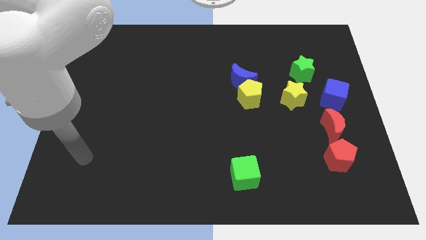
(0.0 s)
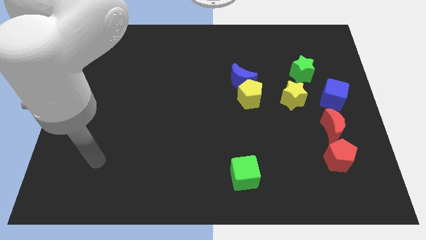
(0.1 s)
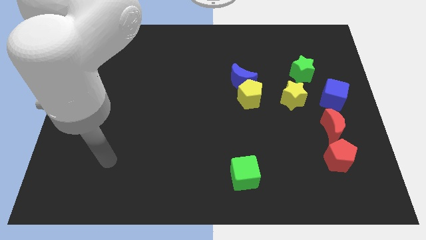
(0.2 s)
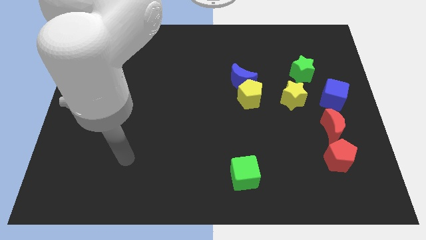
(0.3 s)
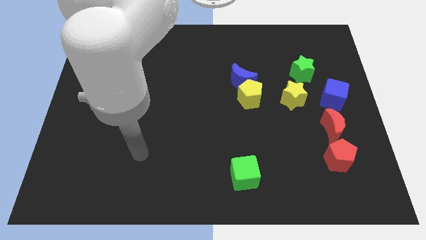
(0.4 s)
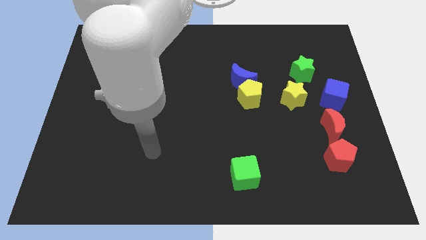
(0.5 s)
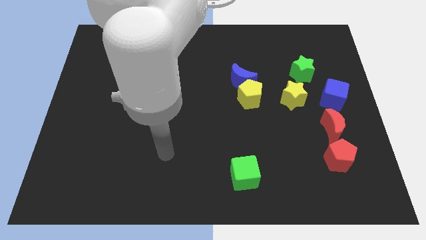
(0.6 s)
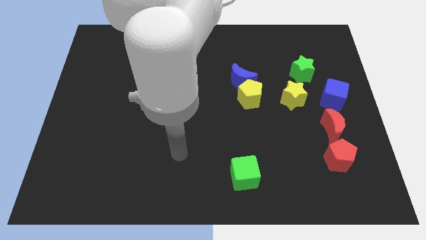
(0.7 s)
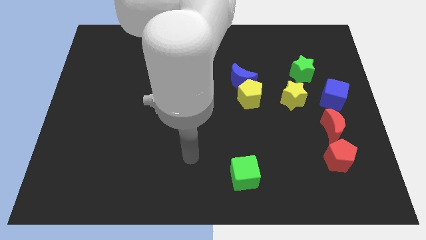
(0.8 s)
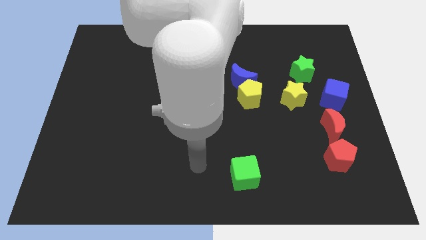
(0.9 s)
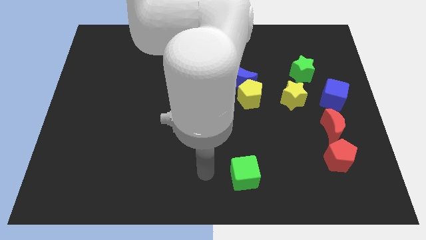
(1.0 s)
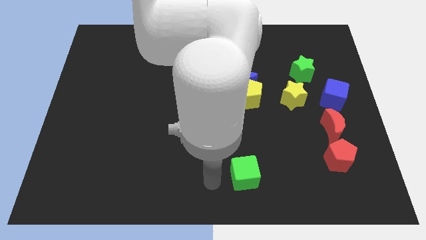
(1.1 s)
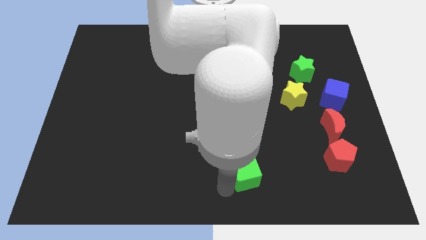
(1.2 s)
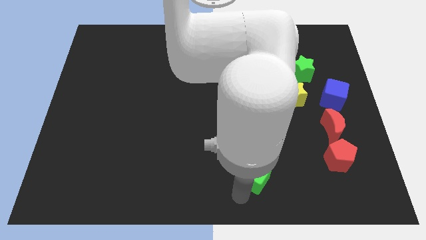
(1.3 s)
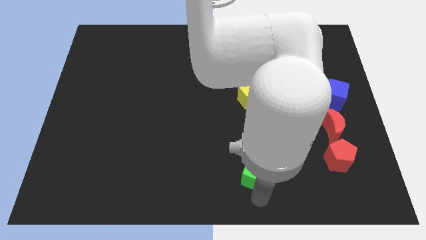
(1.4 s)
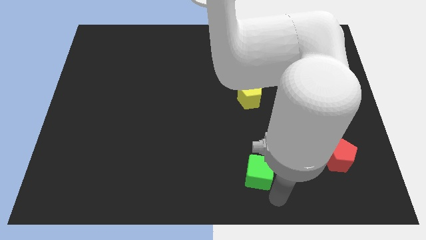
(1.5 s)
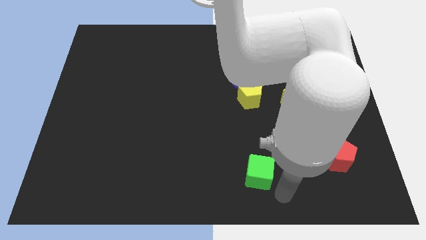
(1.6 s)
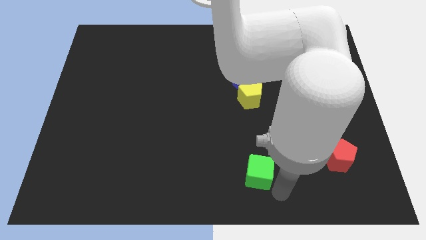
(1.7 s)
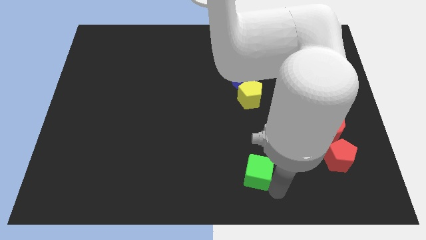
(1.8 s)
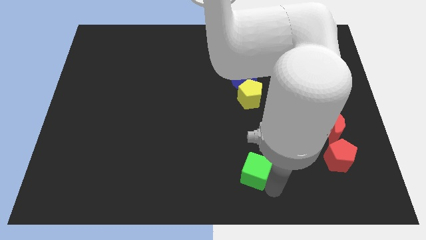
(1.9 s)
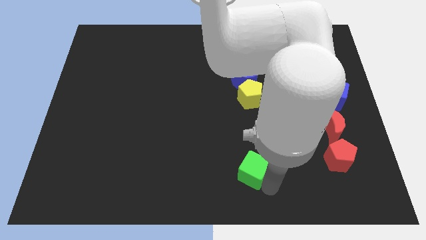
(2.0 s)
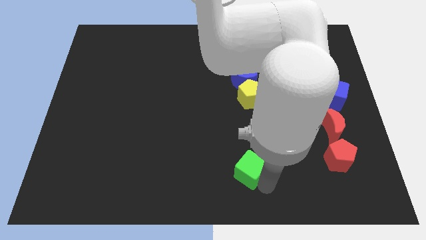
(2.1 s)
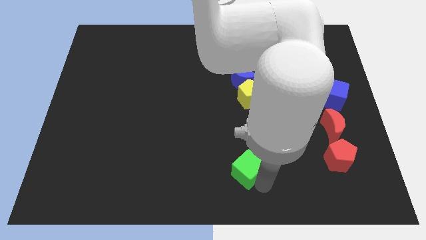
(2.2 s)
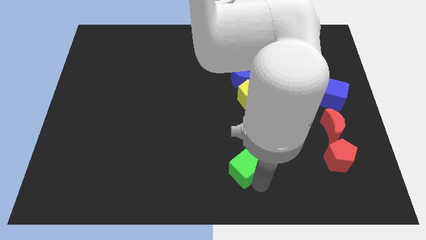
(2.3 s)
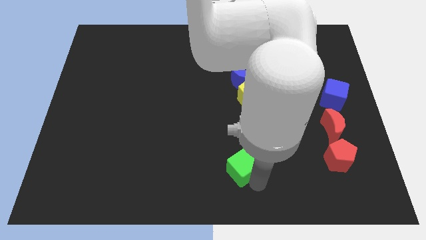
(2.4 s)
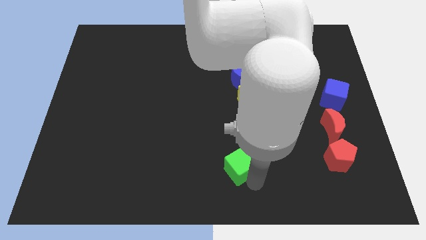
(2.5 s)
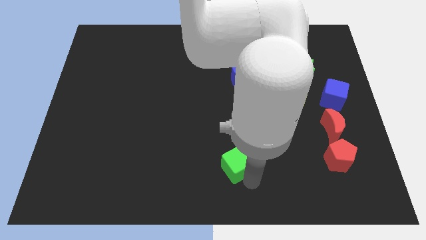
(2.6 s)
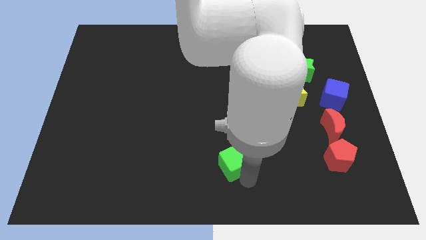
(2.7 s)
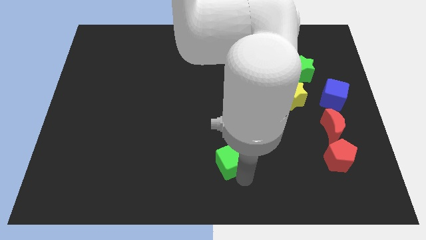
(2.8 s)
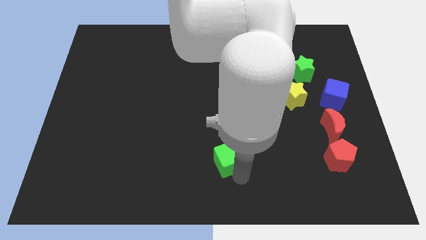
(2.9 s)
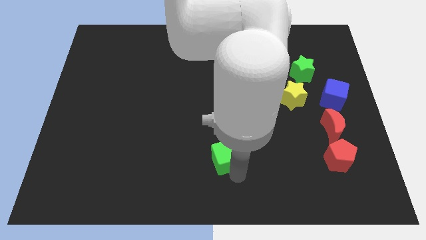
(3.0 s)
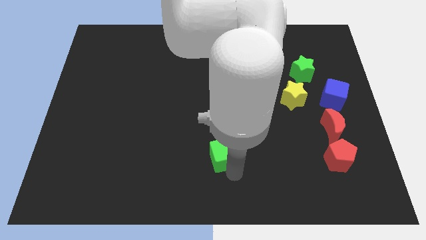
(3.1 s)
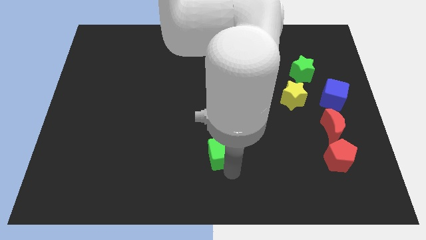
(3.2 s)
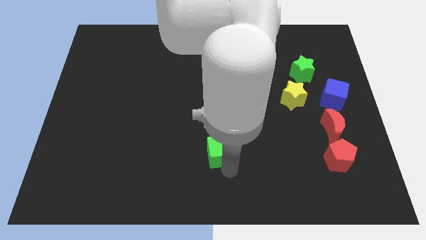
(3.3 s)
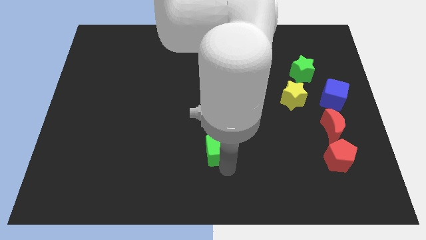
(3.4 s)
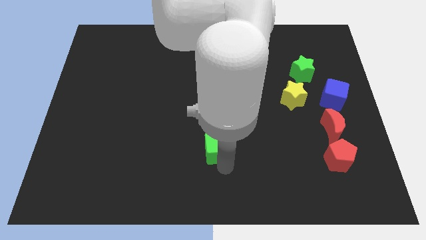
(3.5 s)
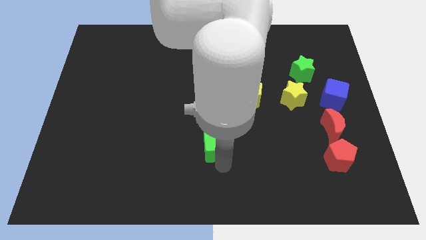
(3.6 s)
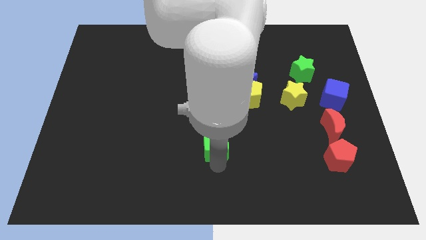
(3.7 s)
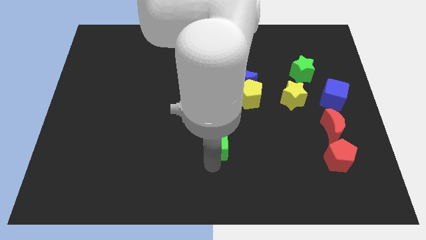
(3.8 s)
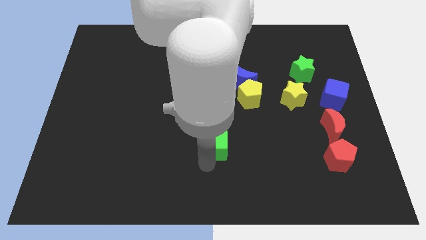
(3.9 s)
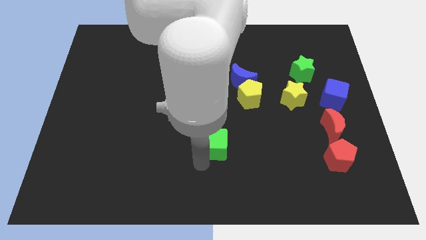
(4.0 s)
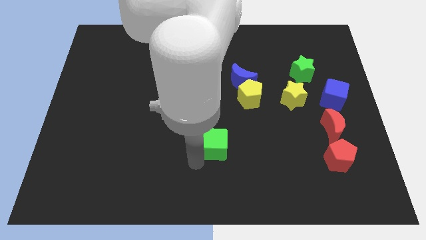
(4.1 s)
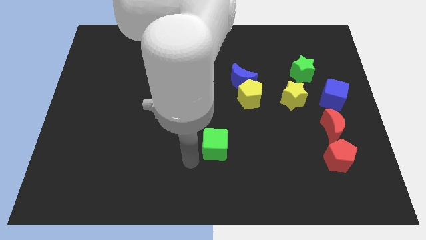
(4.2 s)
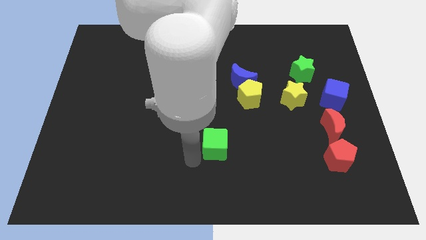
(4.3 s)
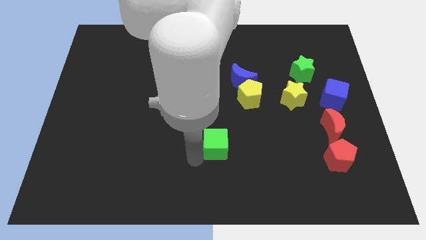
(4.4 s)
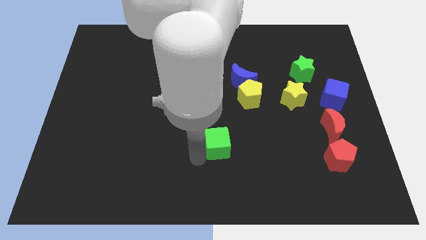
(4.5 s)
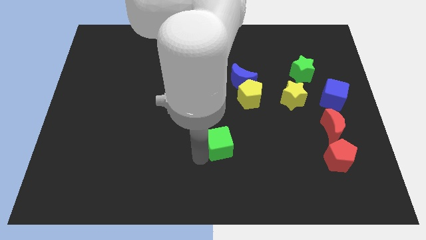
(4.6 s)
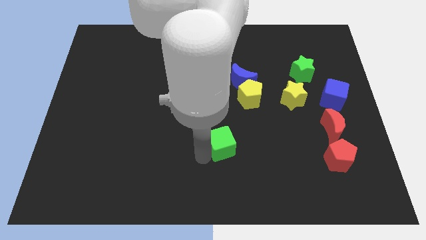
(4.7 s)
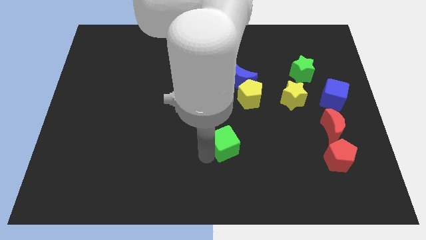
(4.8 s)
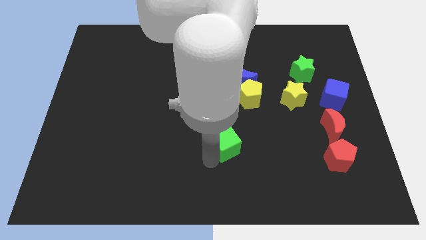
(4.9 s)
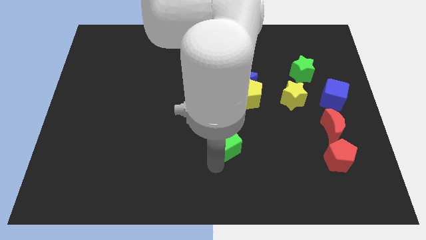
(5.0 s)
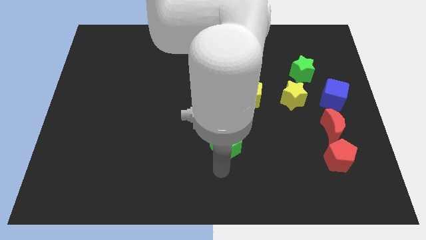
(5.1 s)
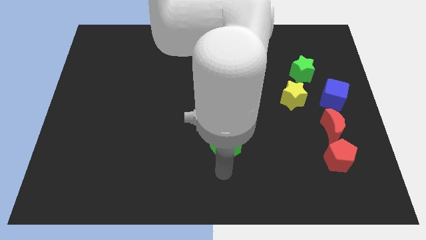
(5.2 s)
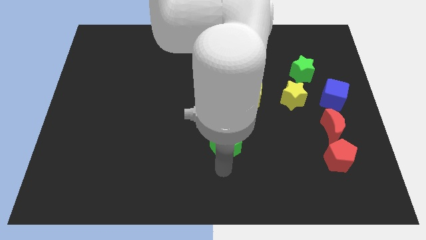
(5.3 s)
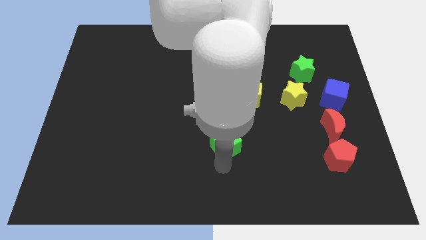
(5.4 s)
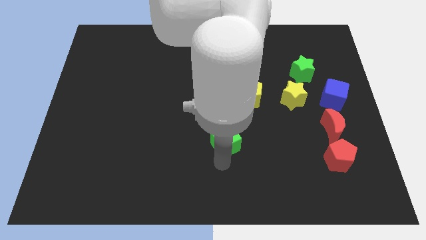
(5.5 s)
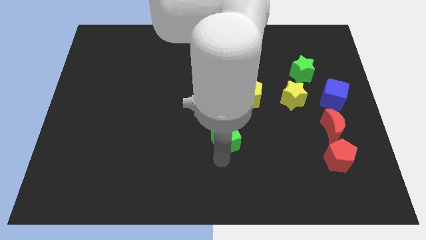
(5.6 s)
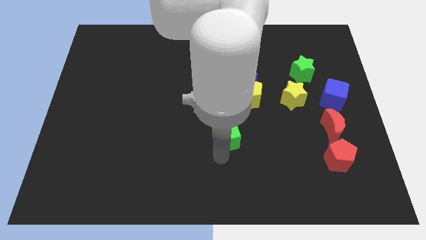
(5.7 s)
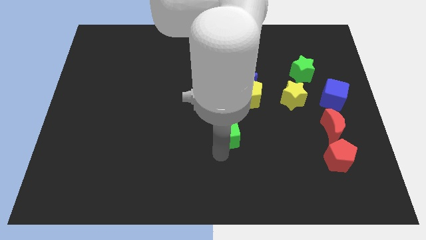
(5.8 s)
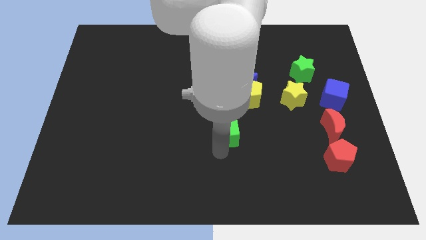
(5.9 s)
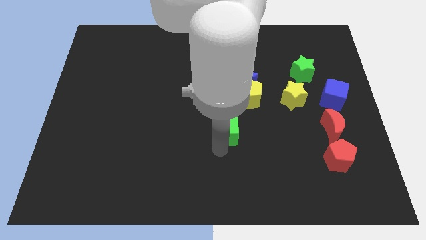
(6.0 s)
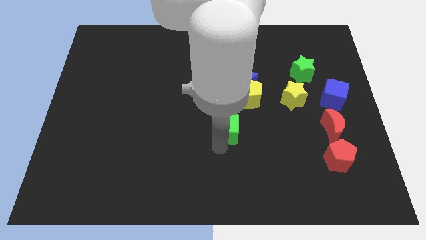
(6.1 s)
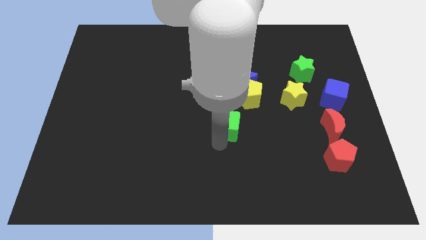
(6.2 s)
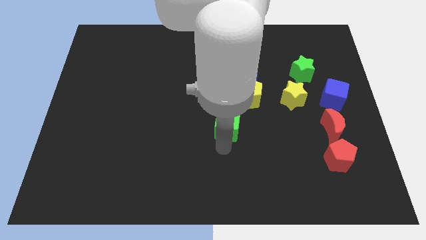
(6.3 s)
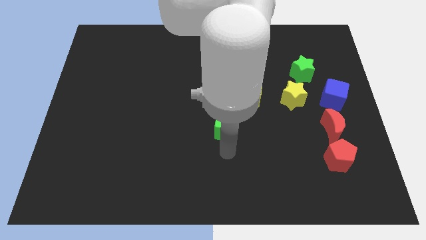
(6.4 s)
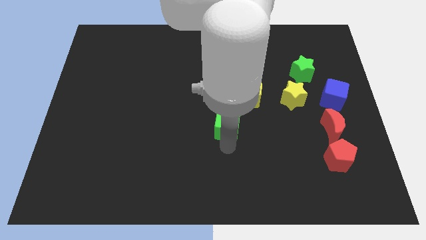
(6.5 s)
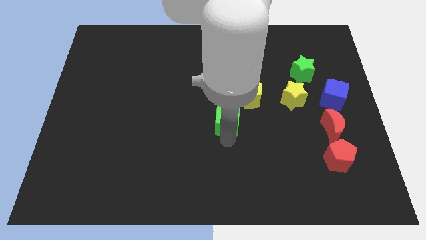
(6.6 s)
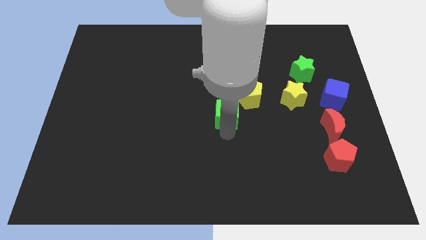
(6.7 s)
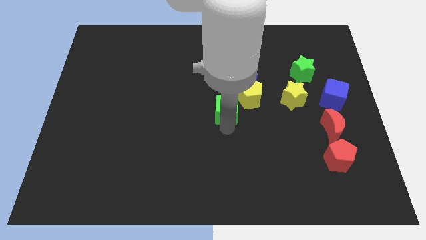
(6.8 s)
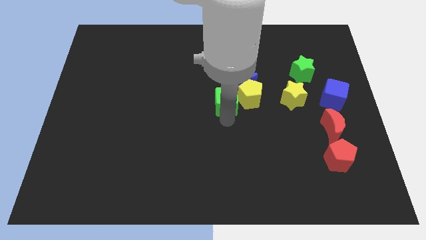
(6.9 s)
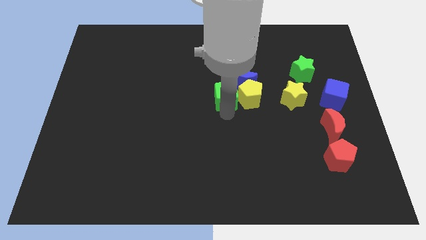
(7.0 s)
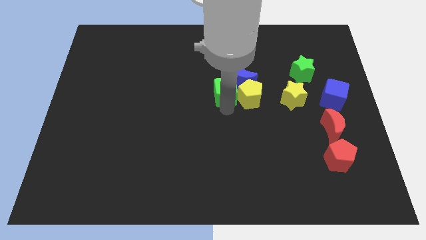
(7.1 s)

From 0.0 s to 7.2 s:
push the green cube towards the blue moon
